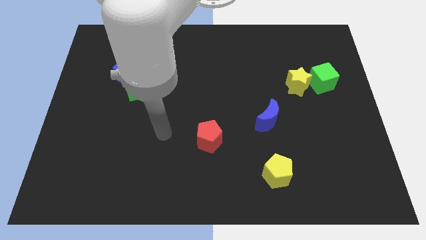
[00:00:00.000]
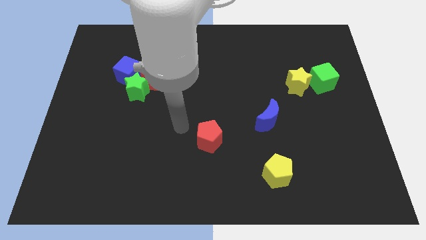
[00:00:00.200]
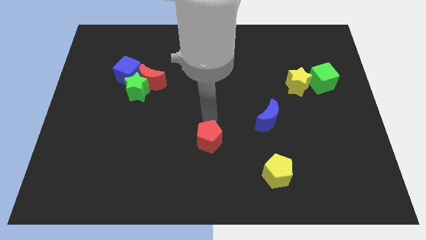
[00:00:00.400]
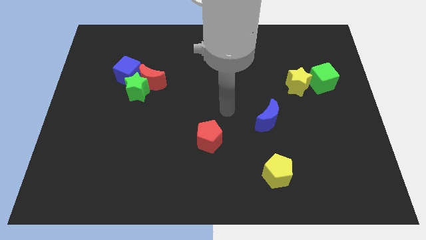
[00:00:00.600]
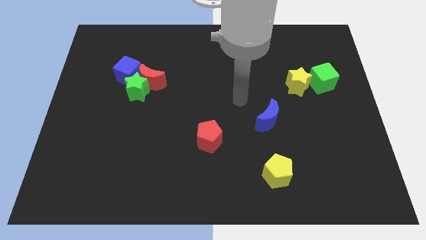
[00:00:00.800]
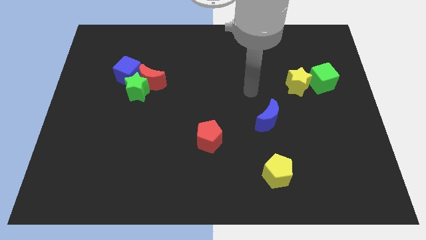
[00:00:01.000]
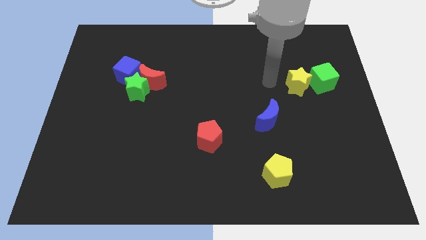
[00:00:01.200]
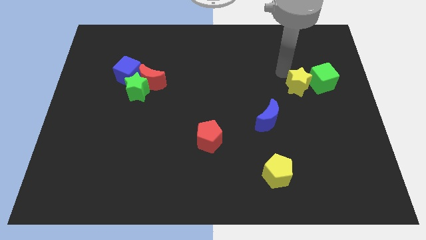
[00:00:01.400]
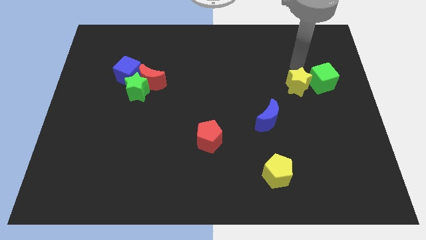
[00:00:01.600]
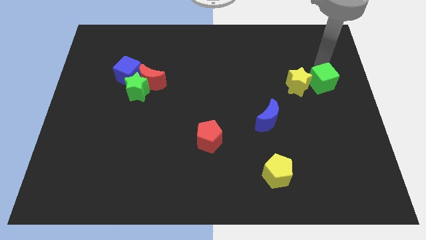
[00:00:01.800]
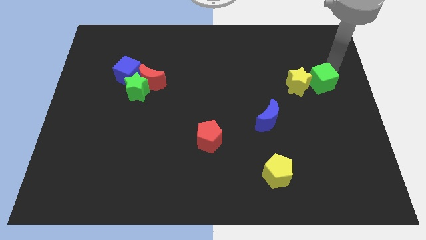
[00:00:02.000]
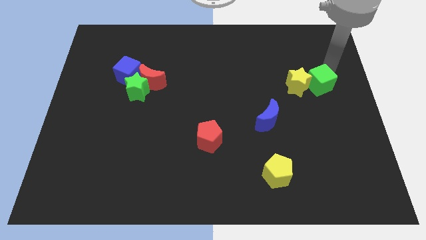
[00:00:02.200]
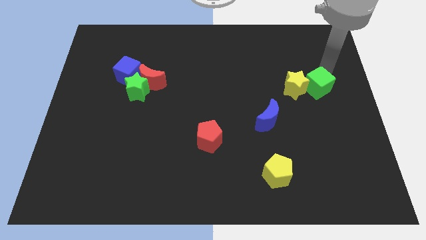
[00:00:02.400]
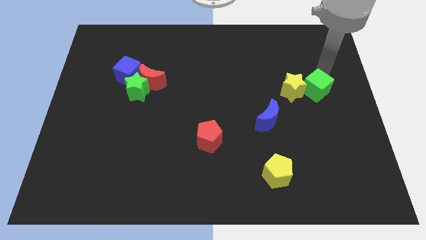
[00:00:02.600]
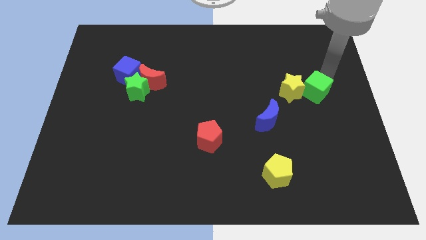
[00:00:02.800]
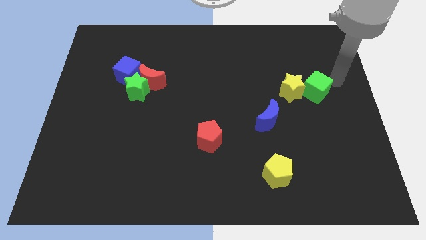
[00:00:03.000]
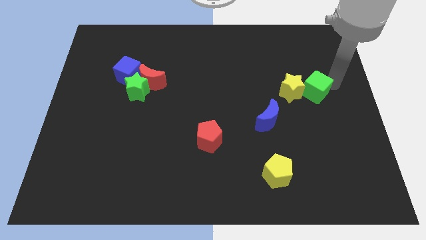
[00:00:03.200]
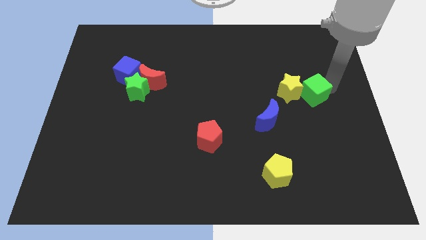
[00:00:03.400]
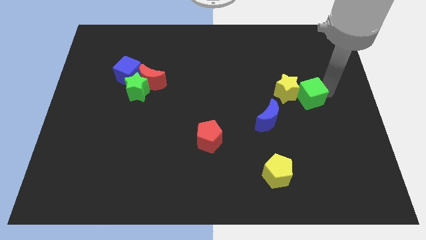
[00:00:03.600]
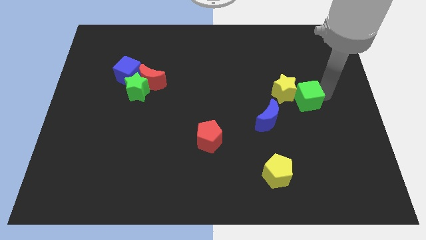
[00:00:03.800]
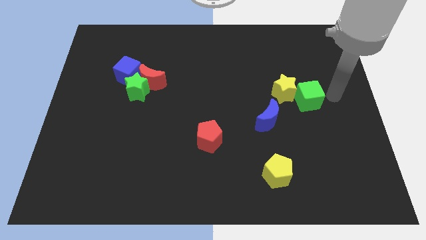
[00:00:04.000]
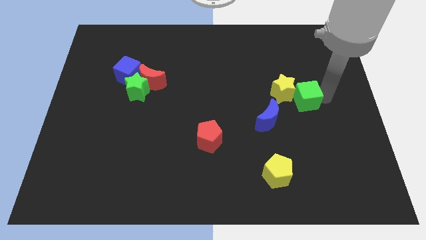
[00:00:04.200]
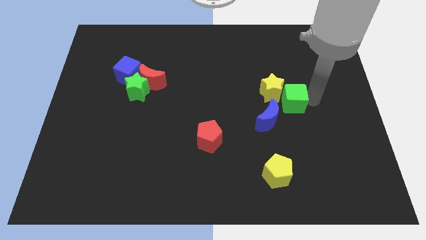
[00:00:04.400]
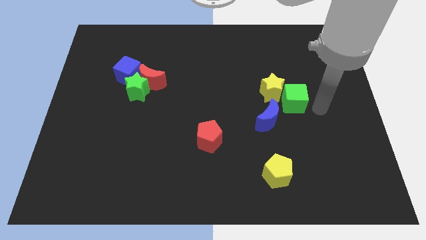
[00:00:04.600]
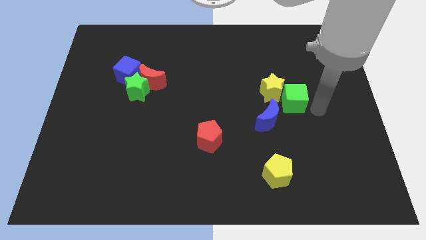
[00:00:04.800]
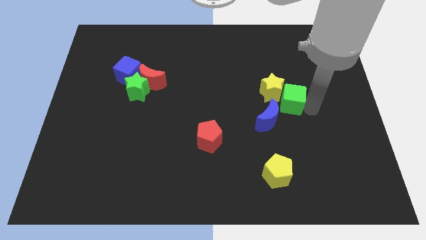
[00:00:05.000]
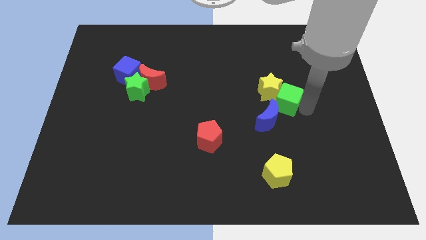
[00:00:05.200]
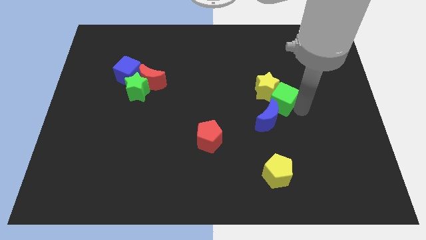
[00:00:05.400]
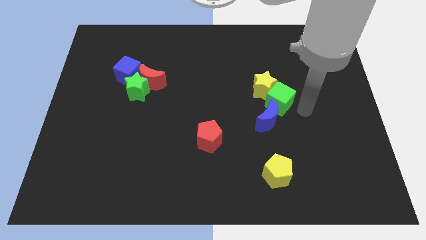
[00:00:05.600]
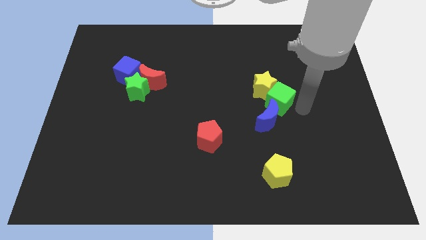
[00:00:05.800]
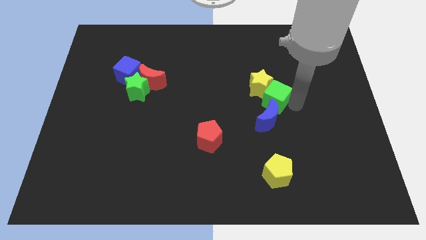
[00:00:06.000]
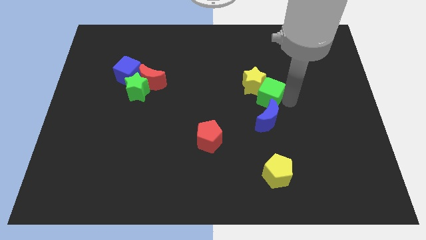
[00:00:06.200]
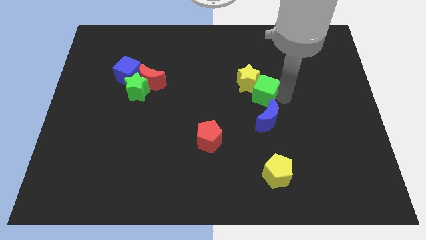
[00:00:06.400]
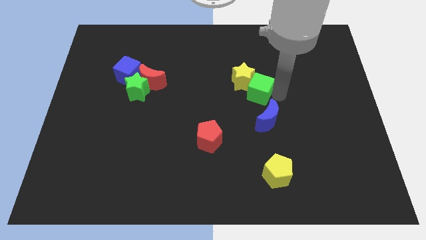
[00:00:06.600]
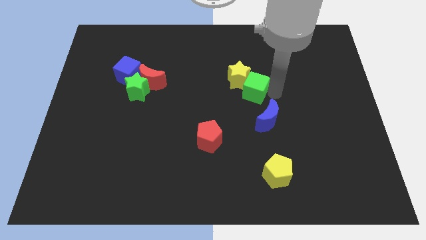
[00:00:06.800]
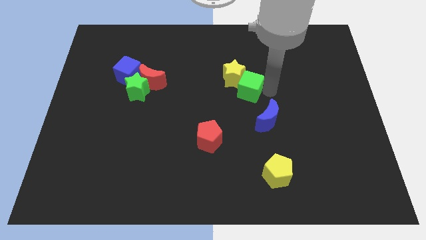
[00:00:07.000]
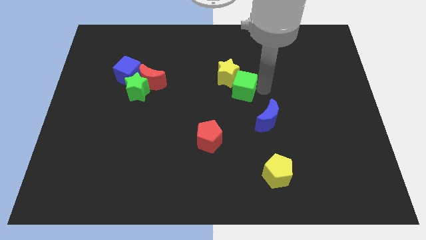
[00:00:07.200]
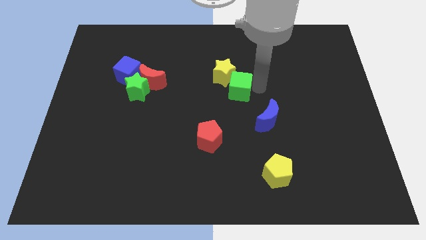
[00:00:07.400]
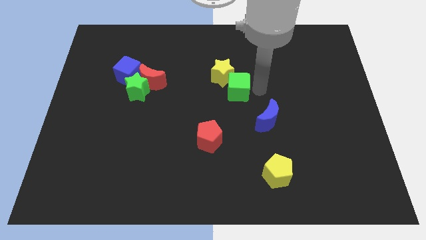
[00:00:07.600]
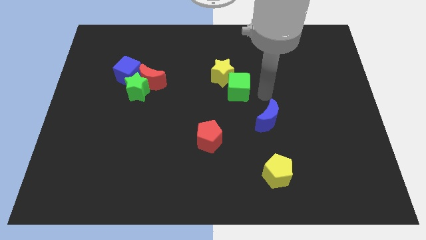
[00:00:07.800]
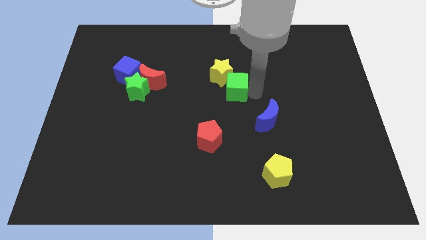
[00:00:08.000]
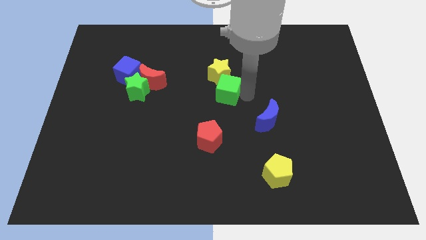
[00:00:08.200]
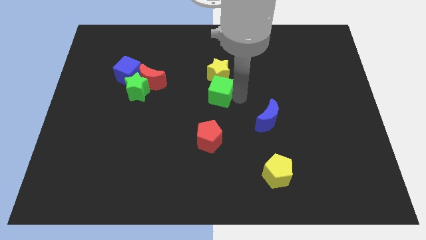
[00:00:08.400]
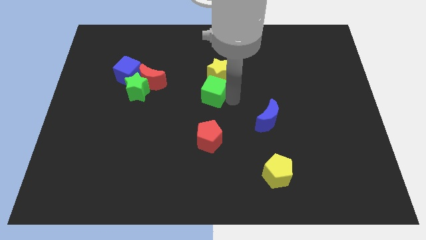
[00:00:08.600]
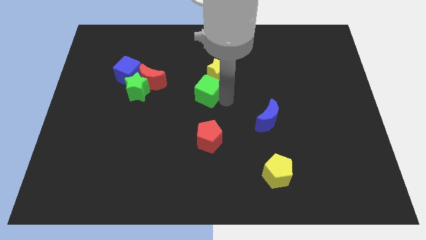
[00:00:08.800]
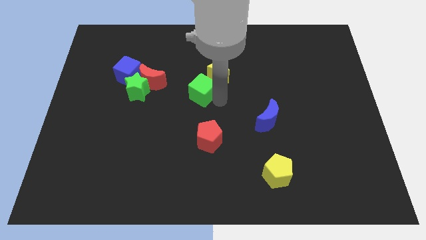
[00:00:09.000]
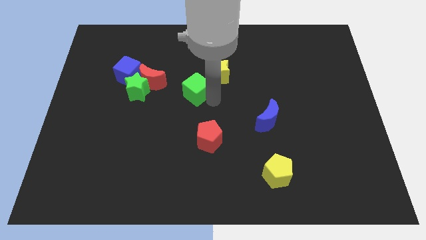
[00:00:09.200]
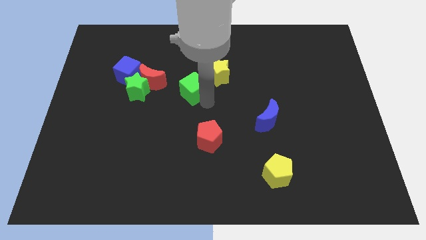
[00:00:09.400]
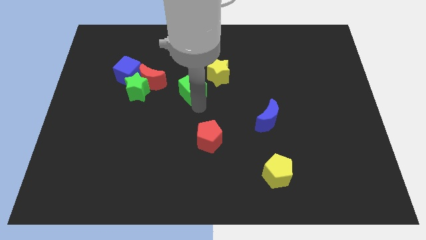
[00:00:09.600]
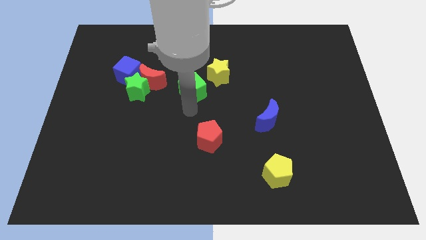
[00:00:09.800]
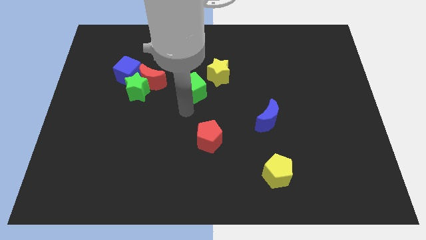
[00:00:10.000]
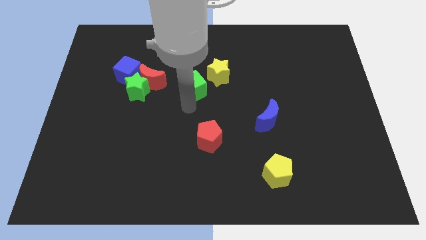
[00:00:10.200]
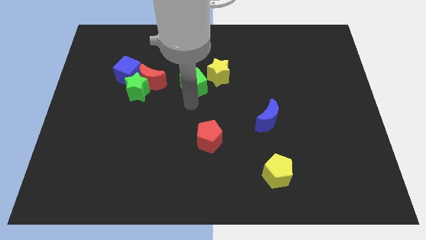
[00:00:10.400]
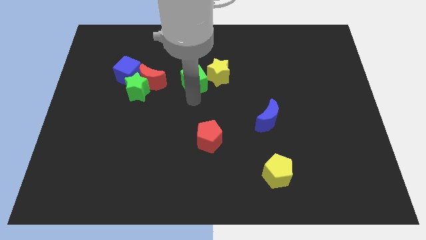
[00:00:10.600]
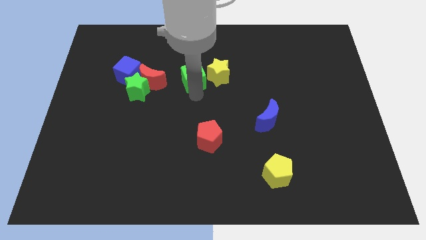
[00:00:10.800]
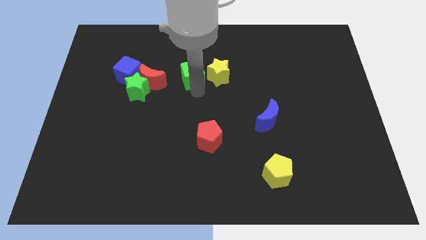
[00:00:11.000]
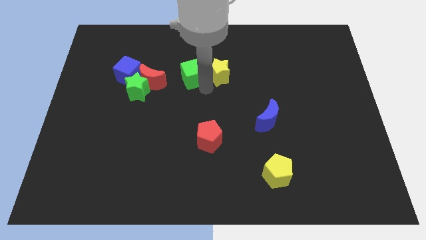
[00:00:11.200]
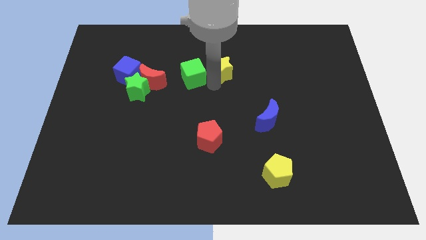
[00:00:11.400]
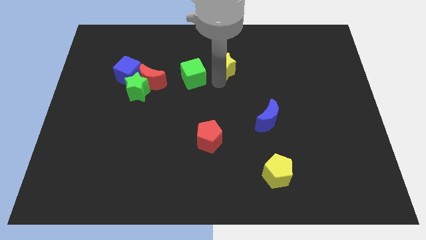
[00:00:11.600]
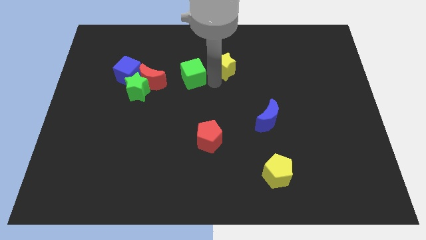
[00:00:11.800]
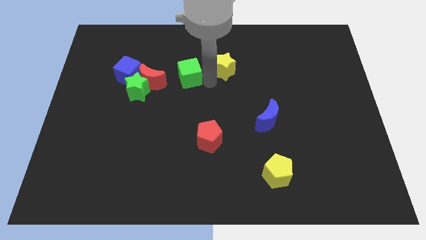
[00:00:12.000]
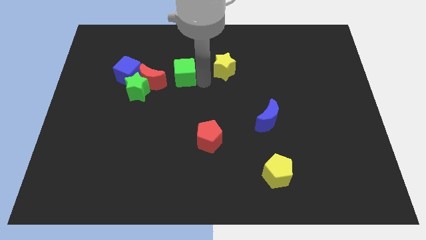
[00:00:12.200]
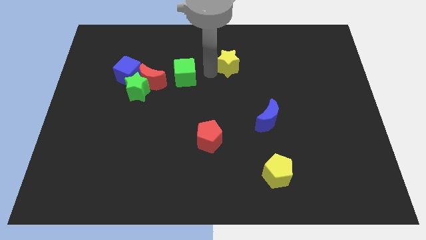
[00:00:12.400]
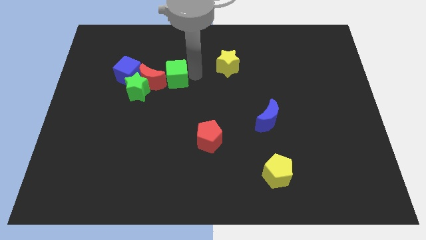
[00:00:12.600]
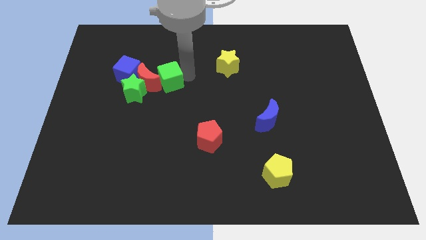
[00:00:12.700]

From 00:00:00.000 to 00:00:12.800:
slide the green cube close to the red moon
